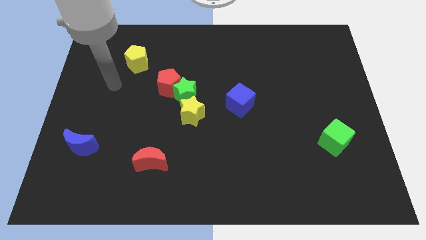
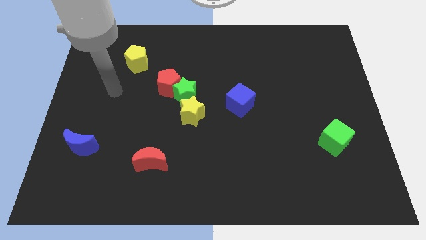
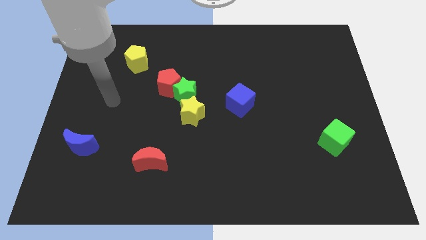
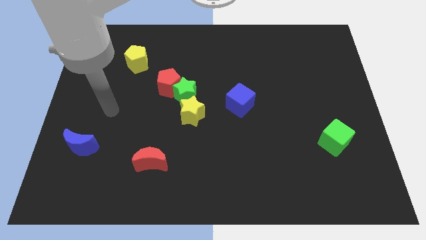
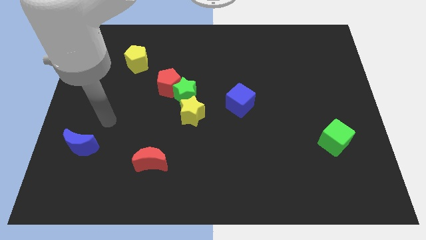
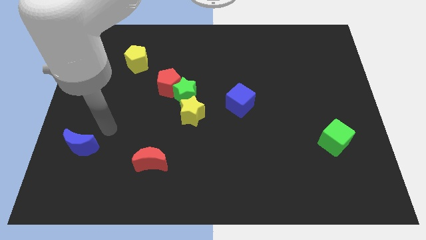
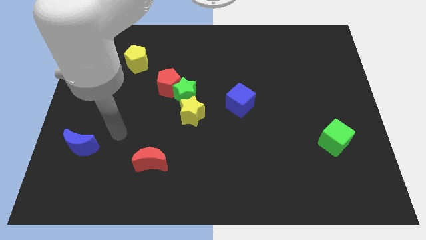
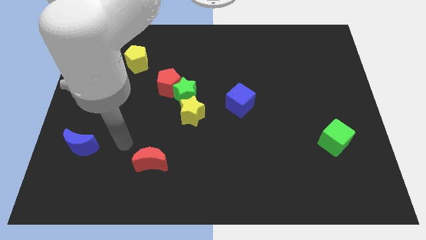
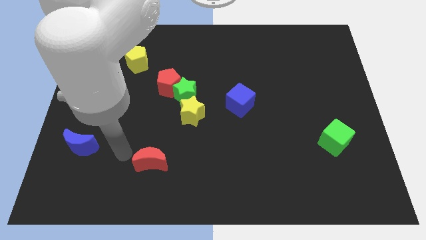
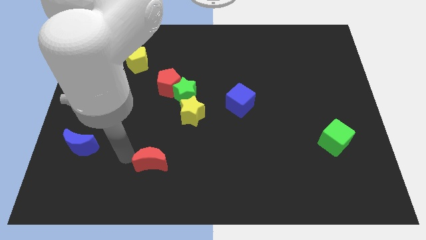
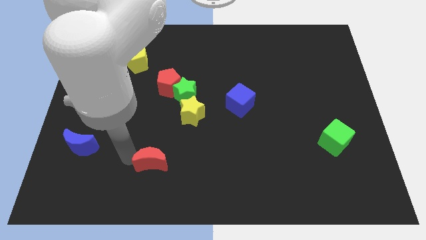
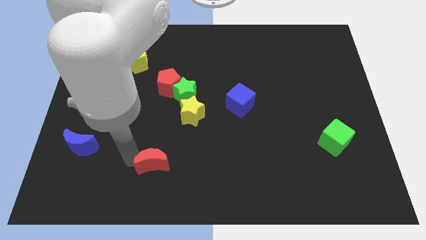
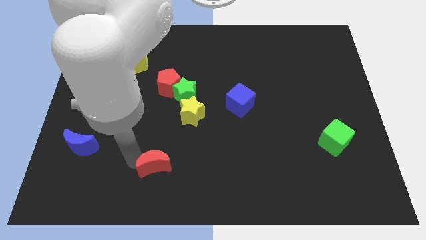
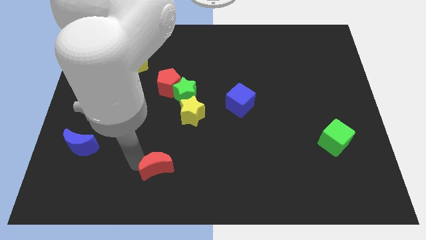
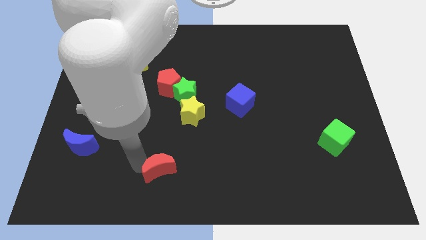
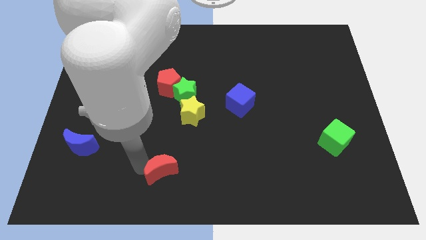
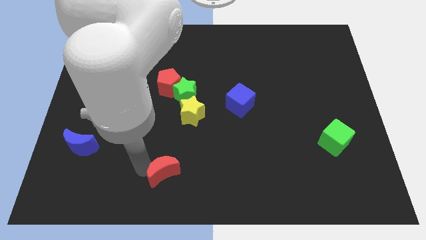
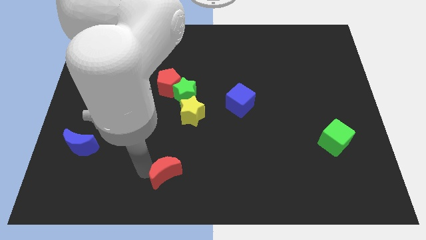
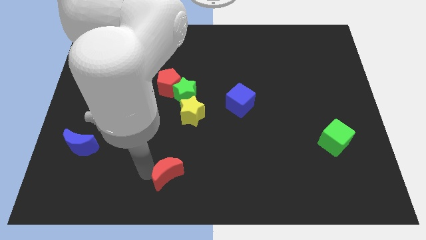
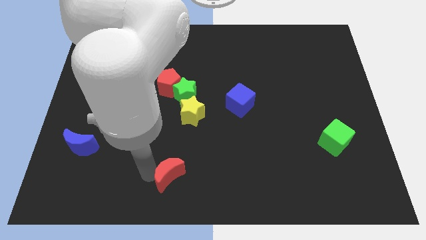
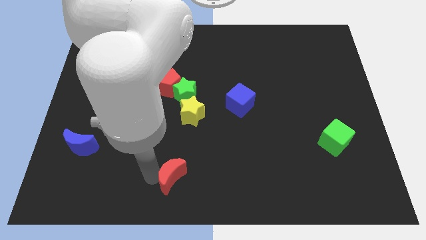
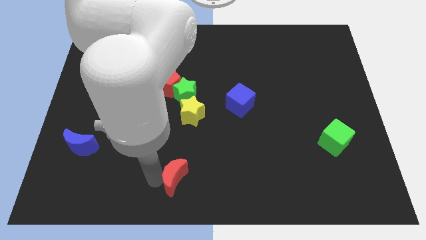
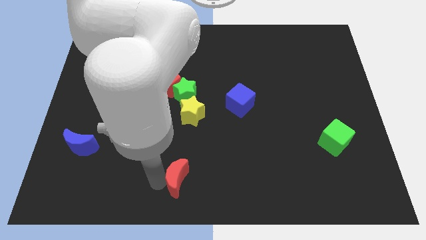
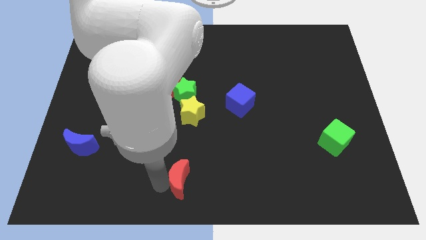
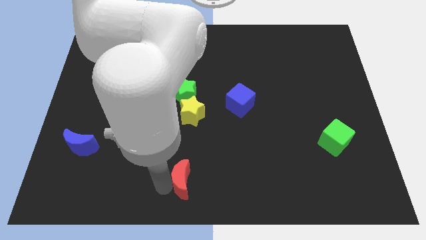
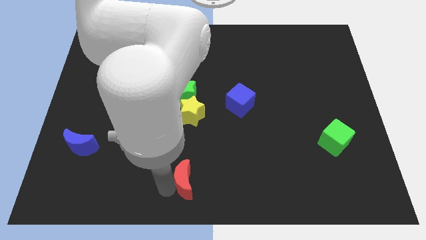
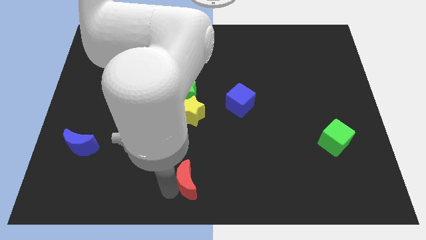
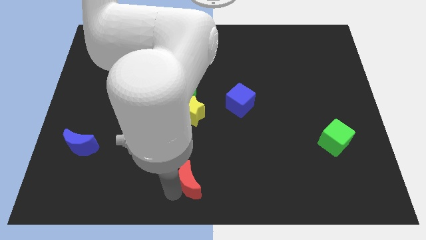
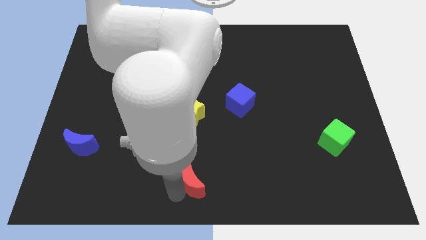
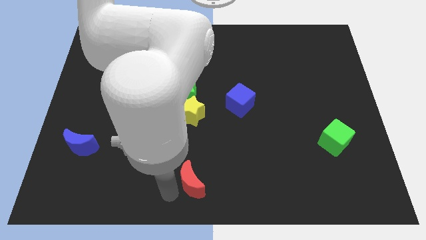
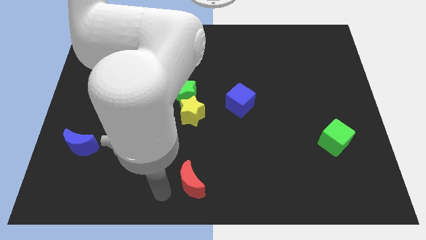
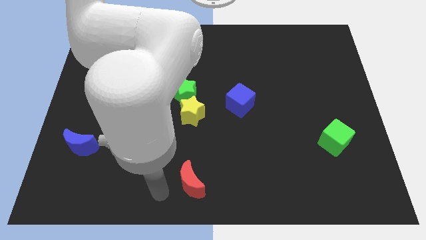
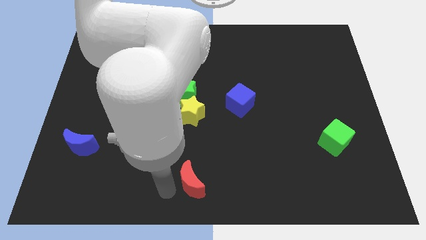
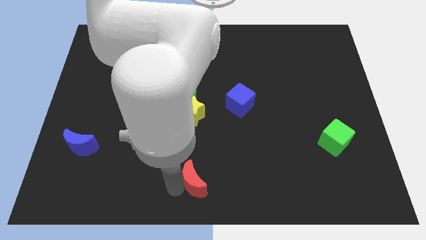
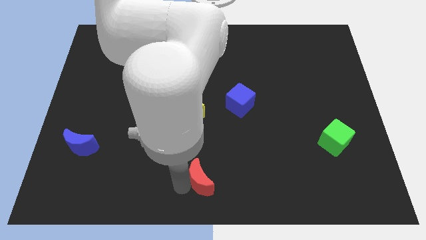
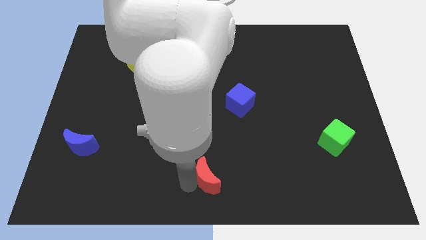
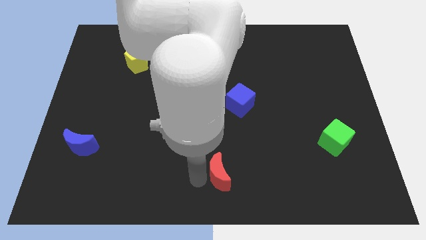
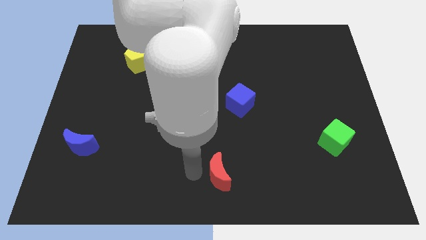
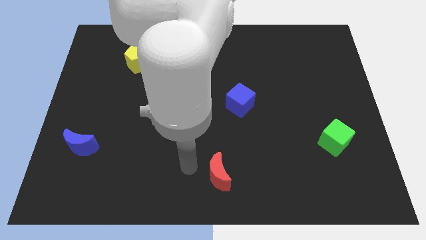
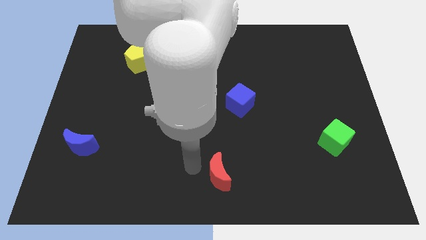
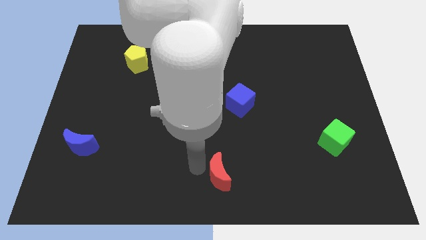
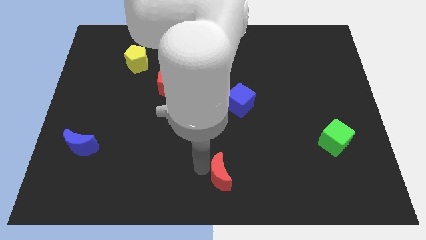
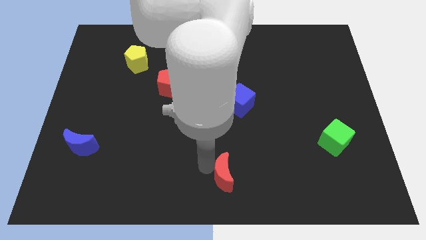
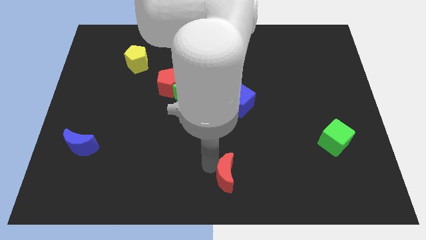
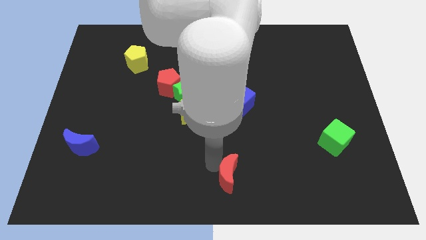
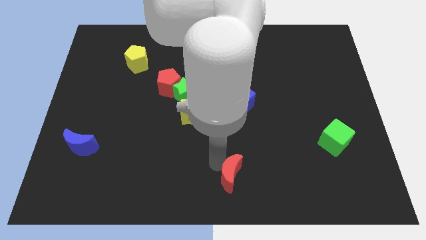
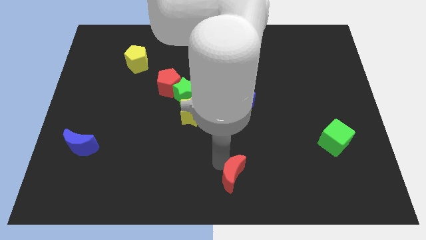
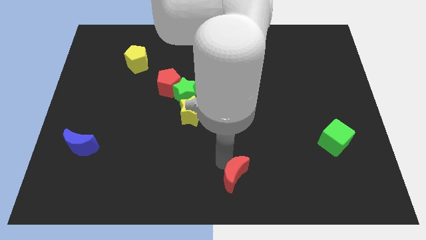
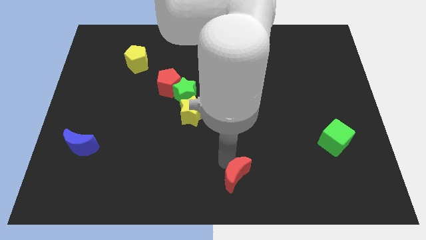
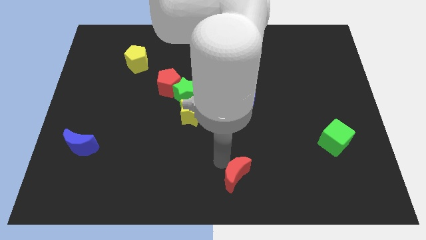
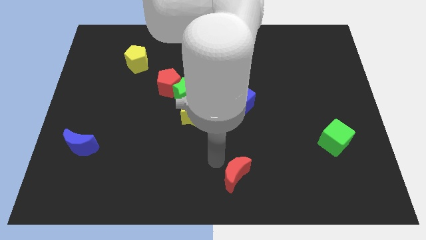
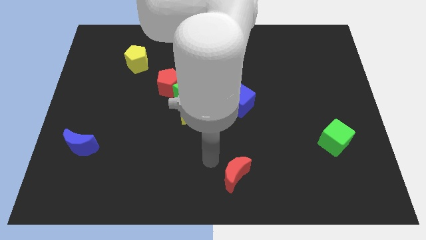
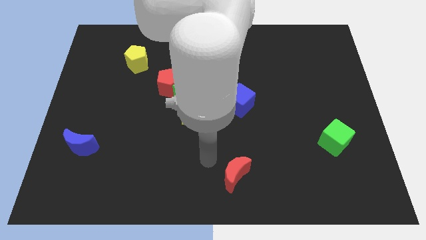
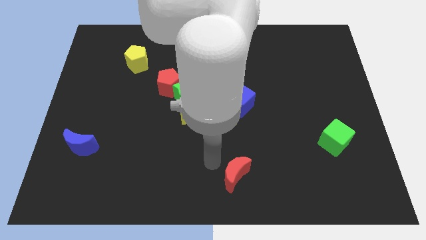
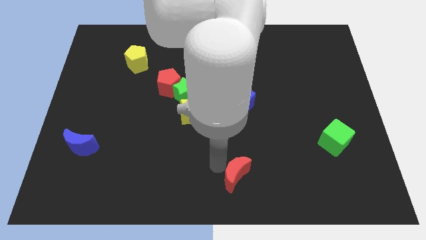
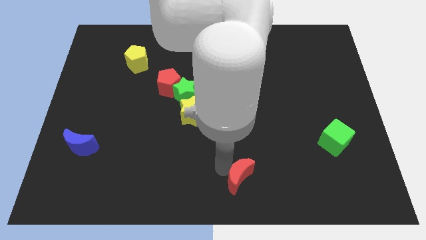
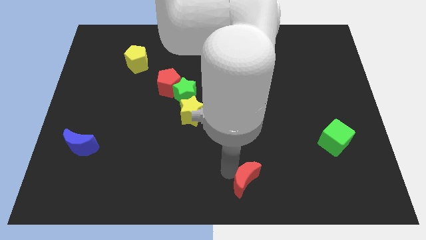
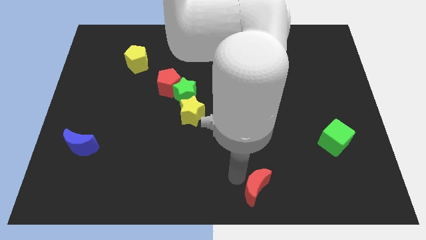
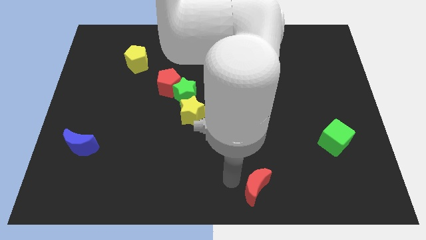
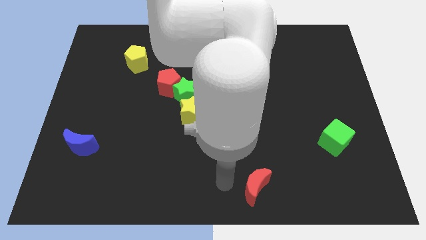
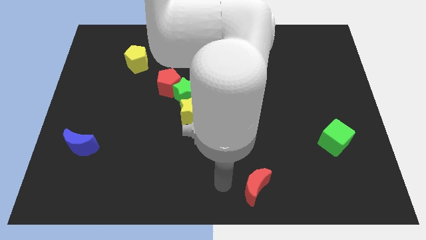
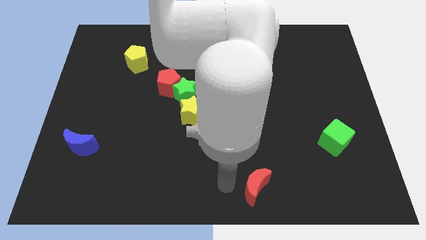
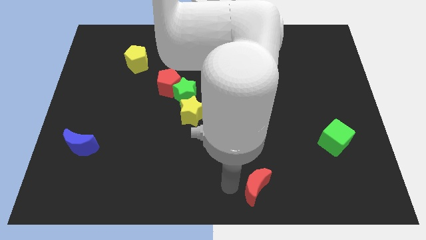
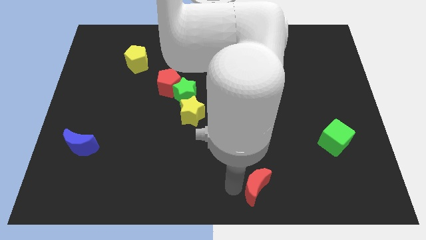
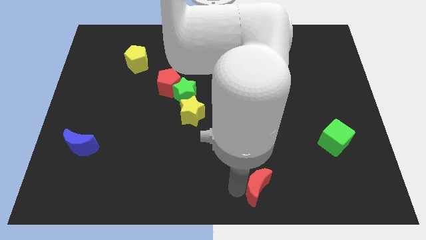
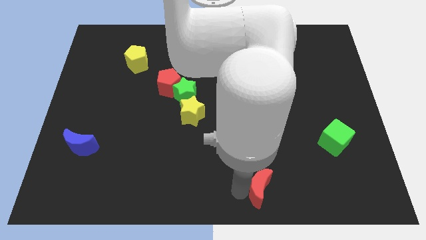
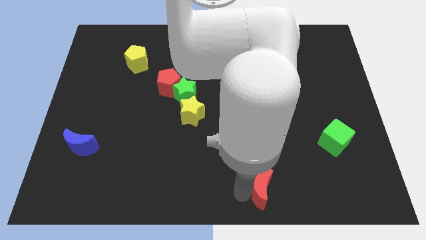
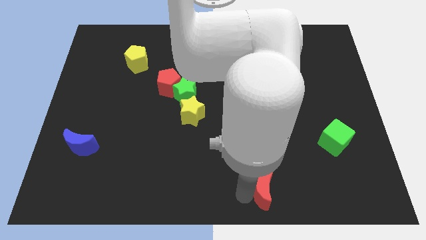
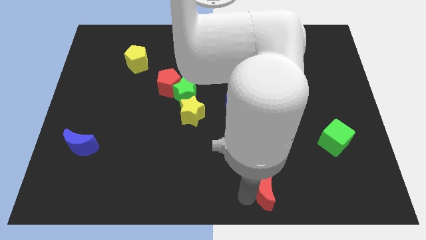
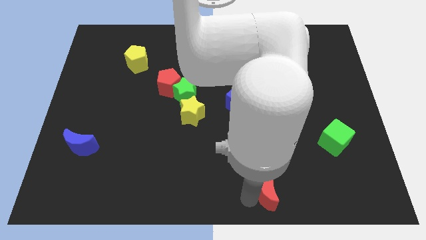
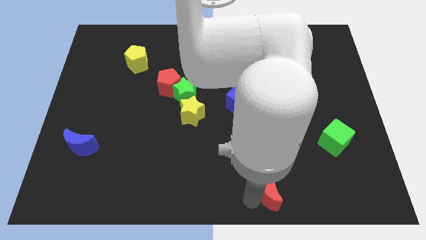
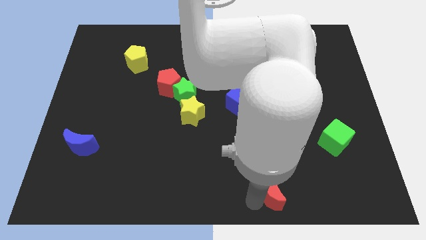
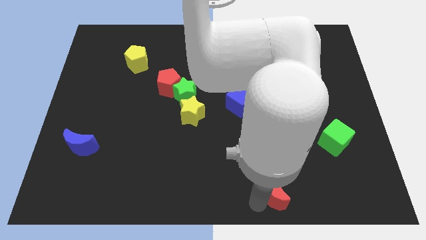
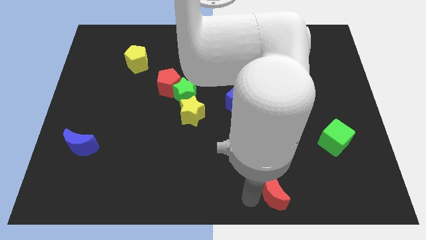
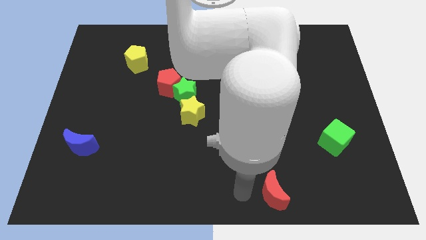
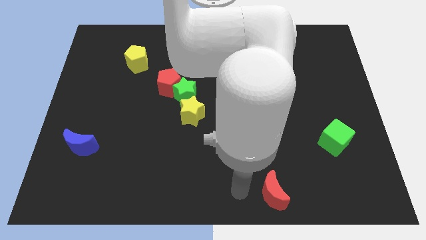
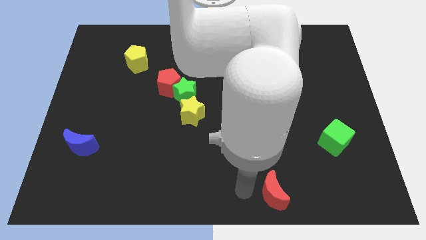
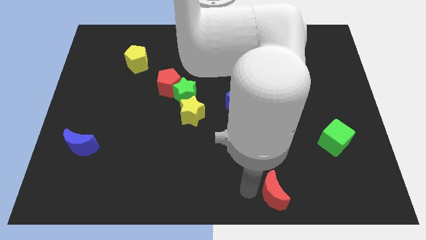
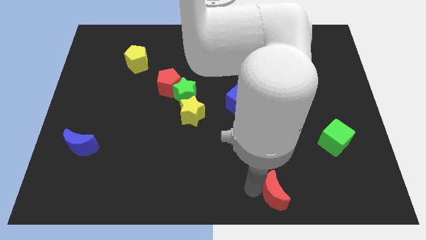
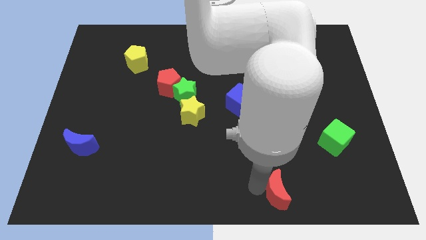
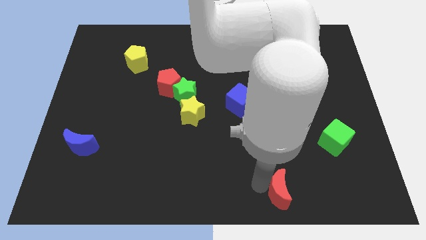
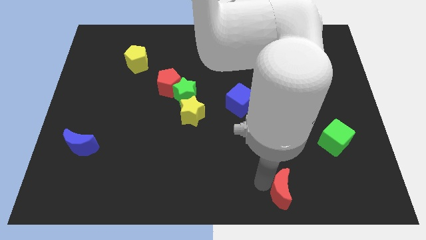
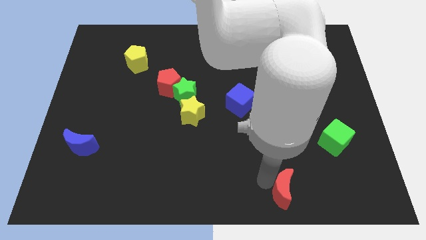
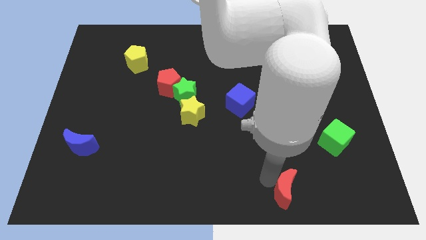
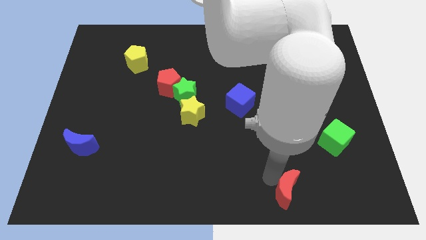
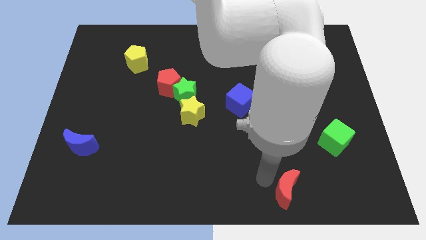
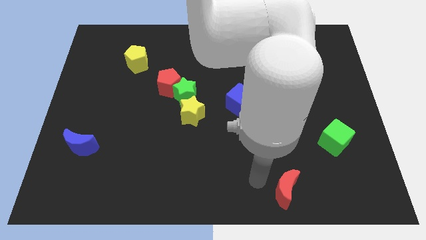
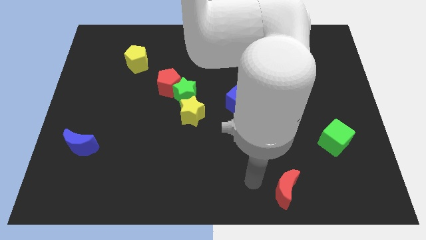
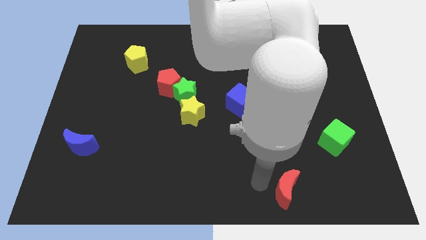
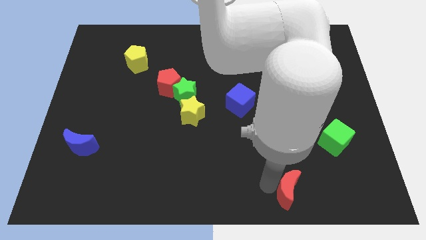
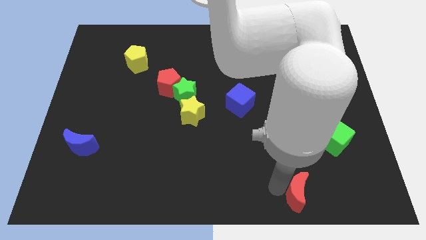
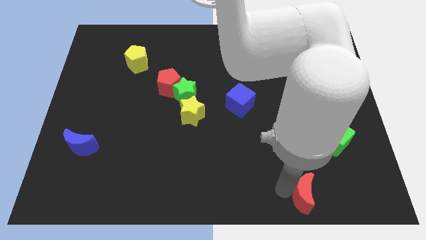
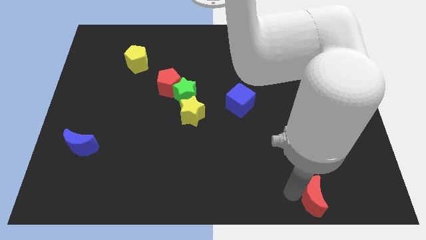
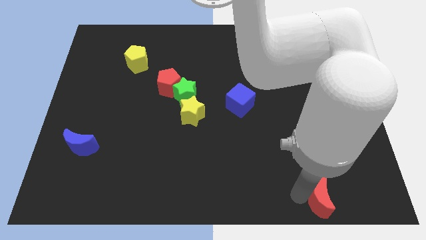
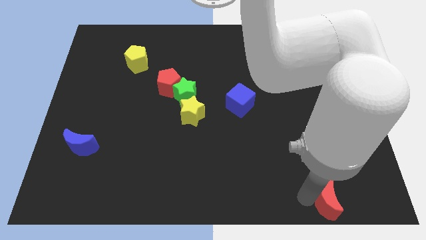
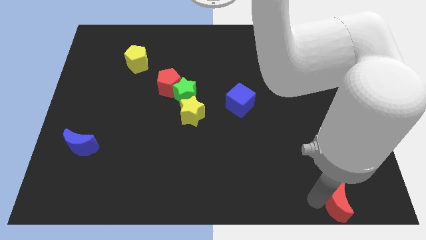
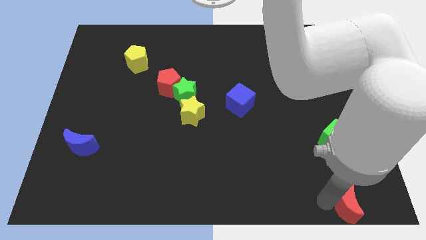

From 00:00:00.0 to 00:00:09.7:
push the red moon to the lower right corner
